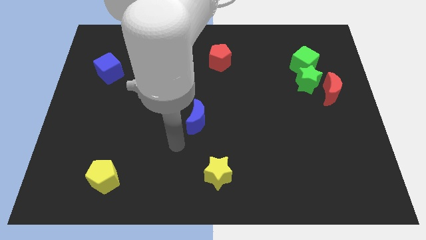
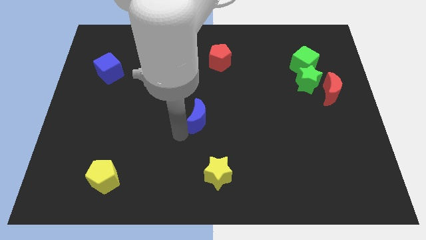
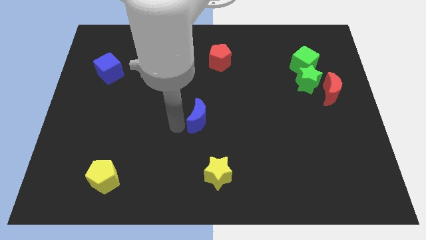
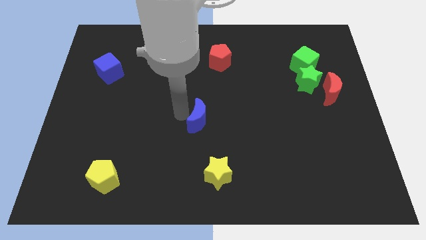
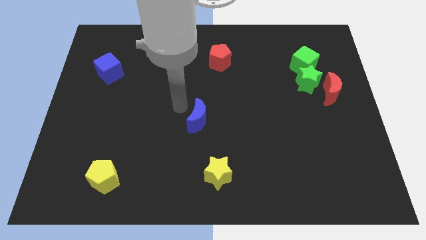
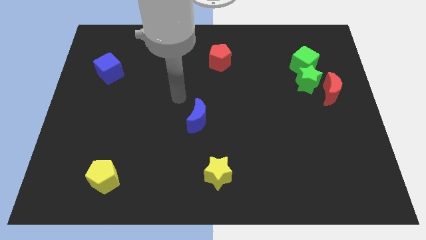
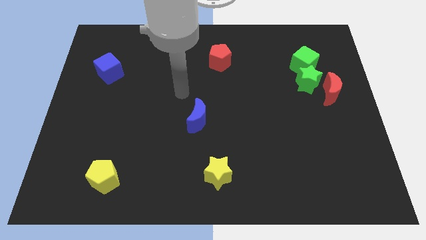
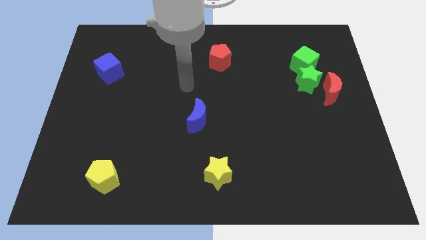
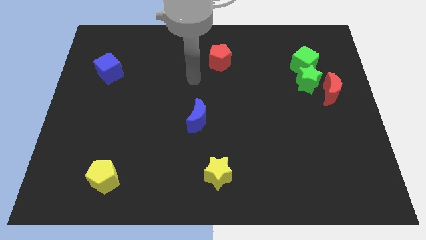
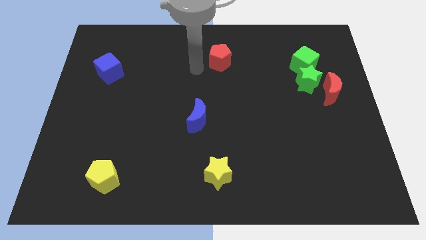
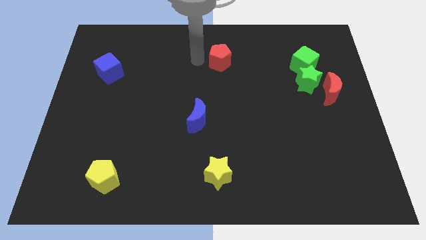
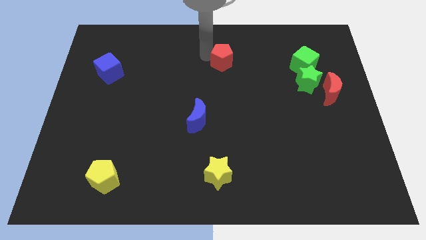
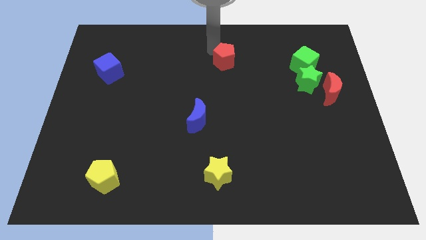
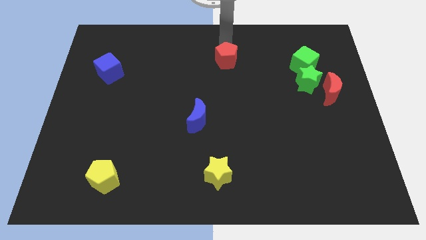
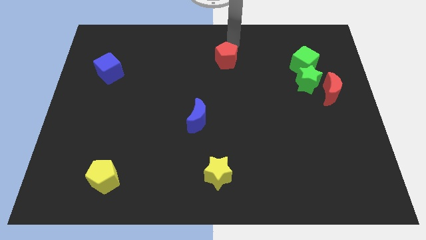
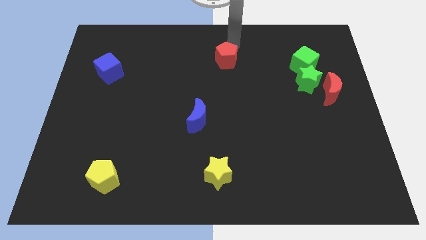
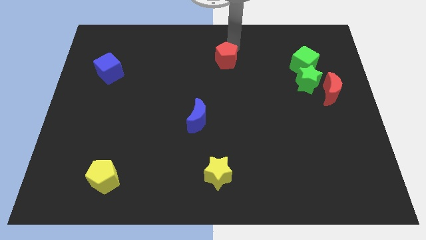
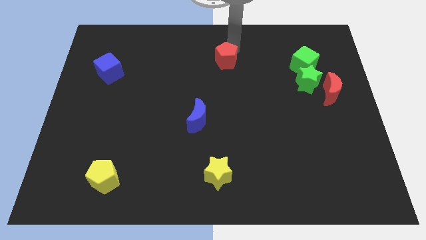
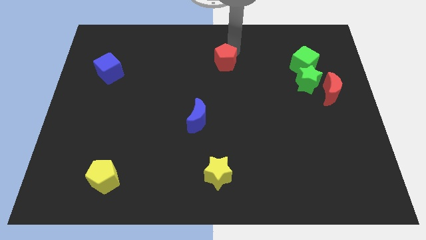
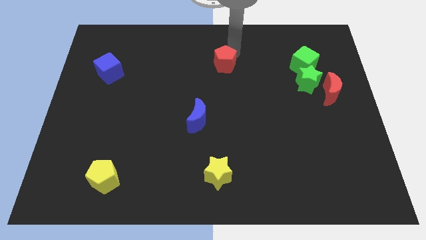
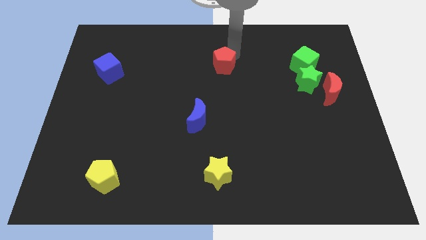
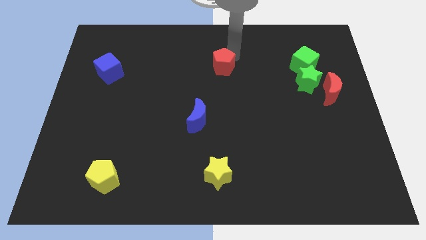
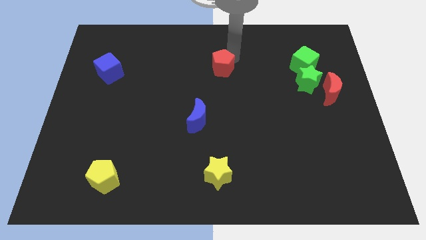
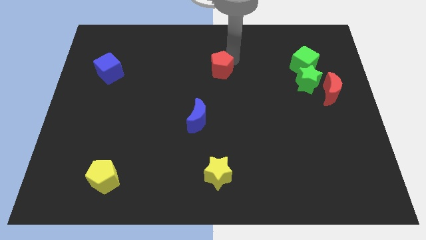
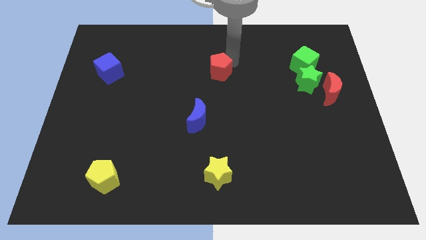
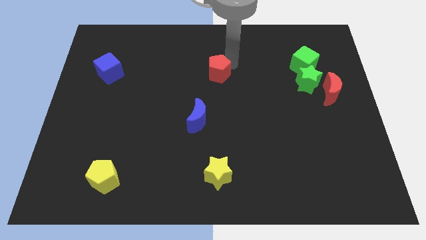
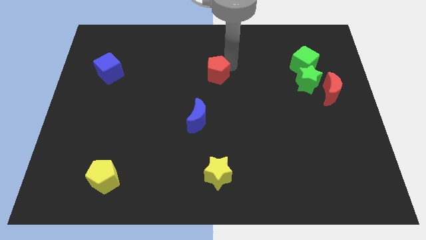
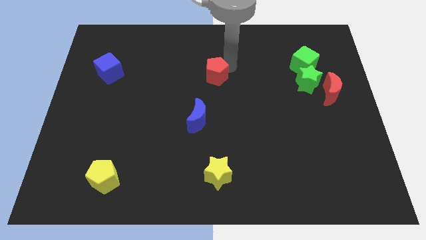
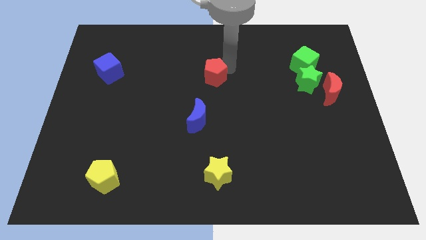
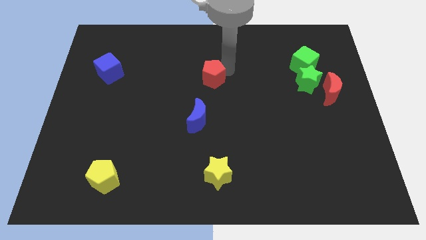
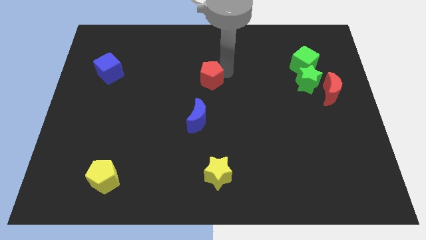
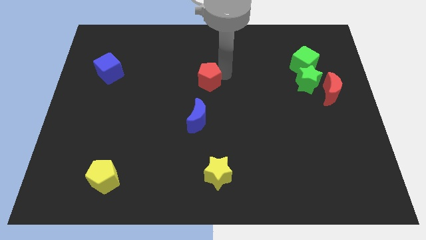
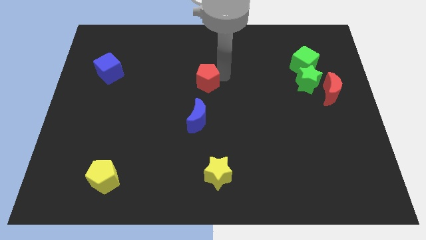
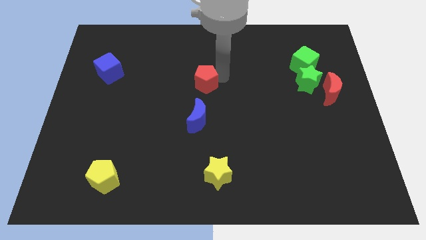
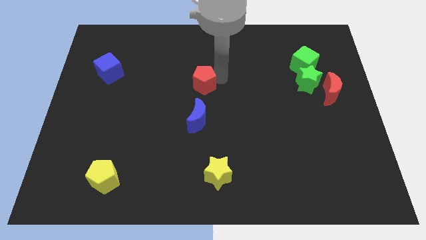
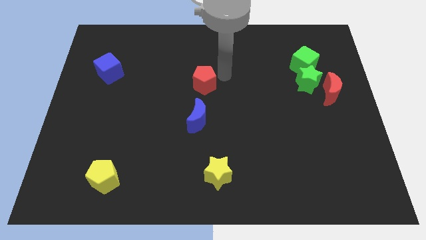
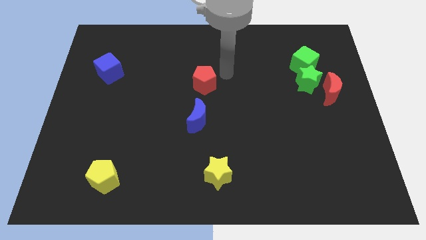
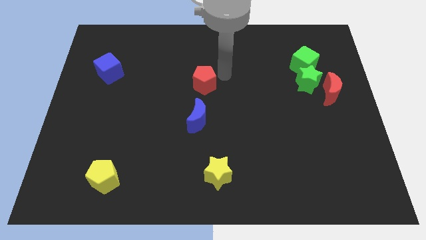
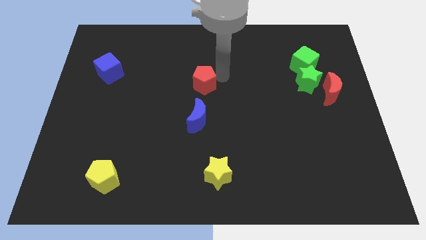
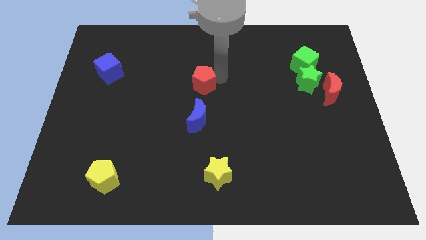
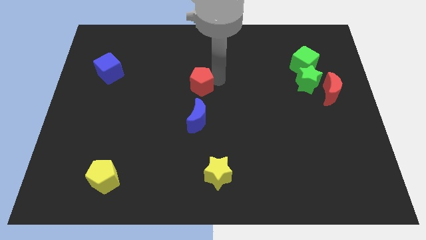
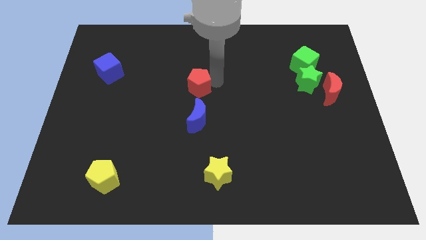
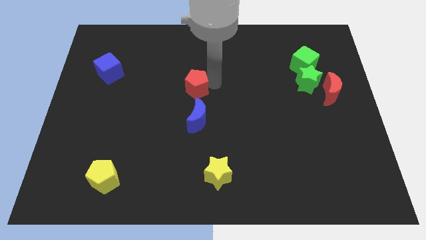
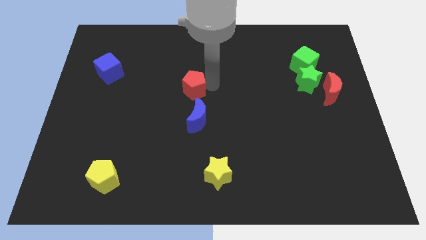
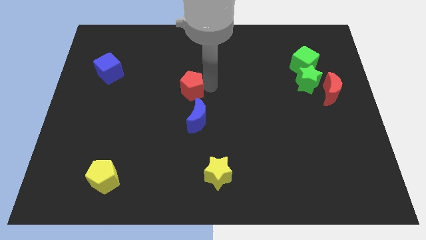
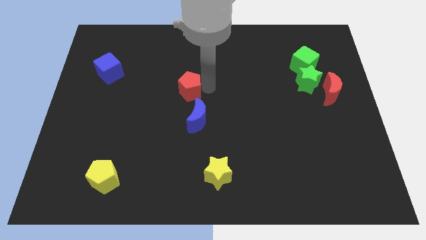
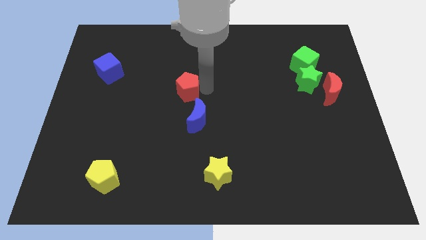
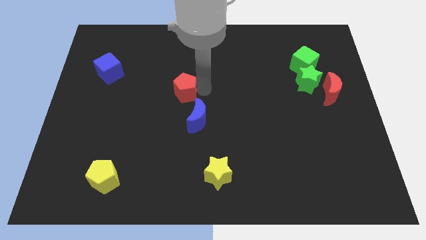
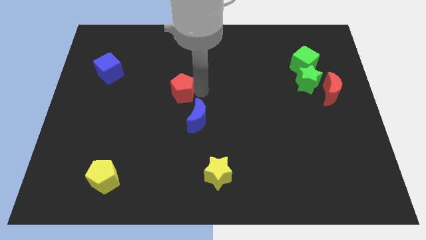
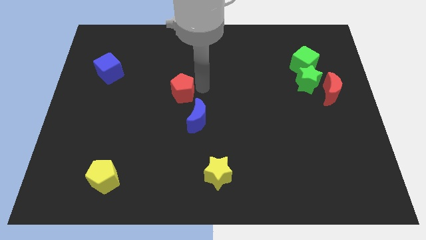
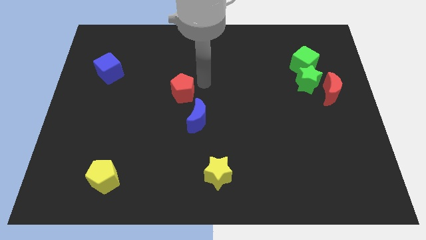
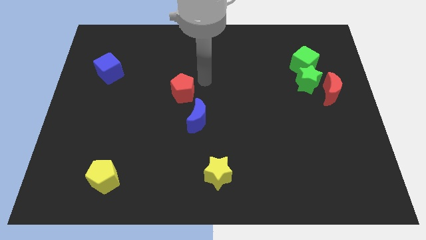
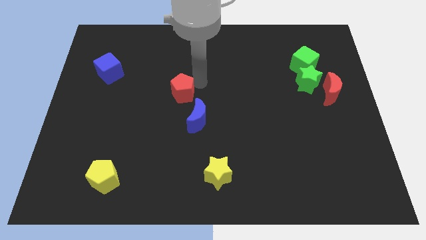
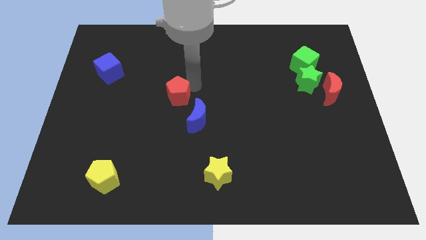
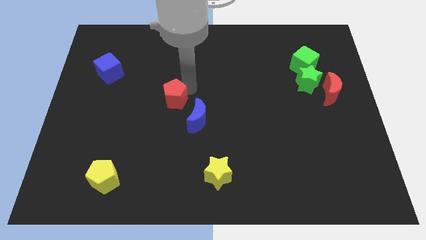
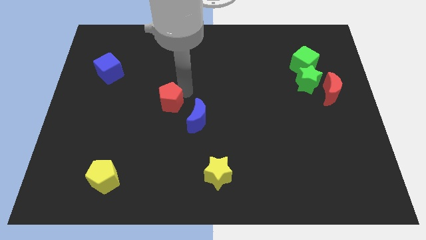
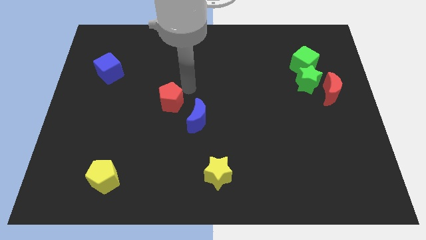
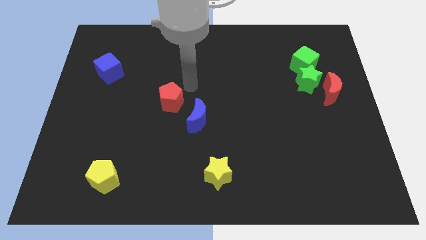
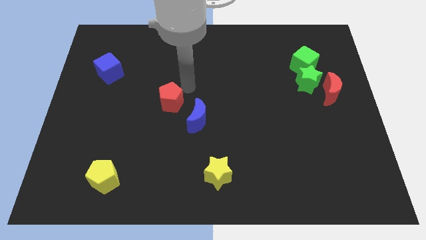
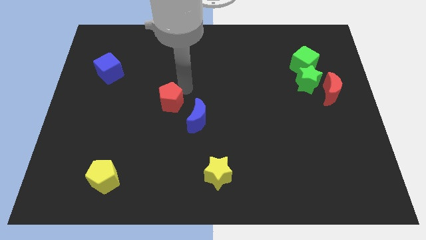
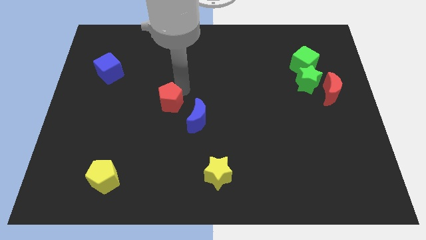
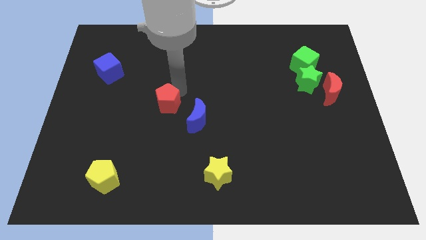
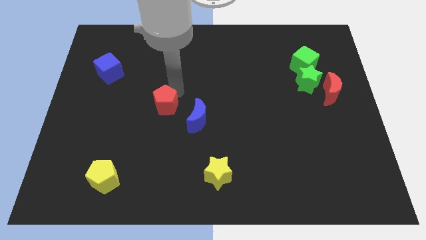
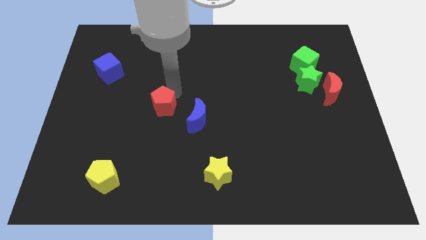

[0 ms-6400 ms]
push the red pentagon diagonally down and left

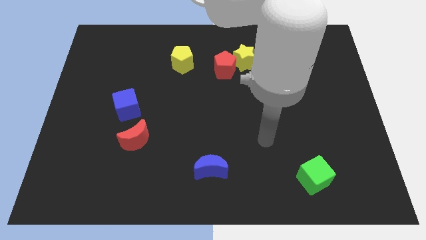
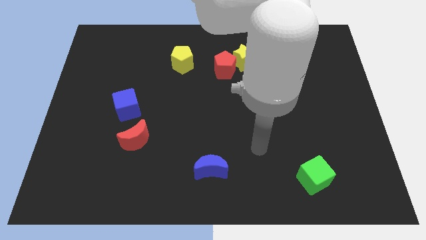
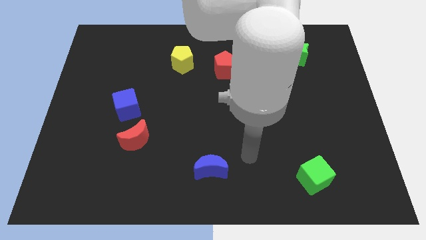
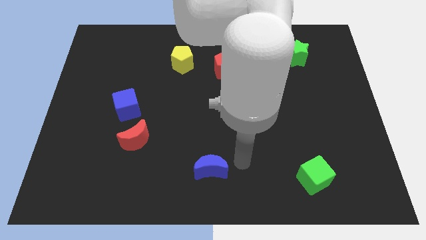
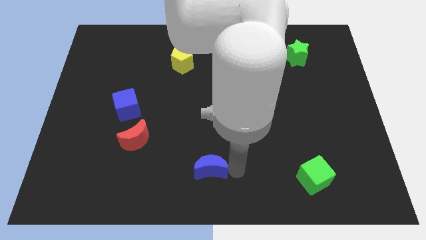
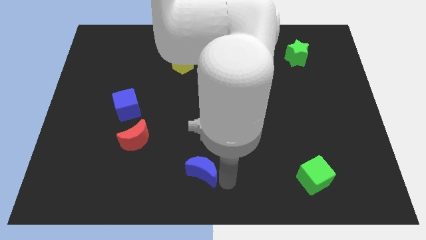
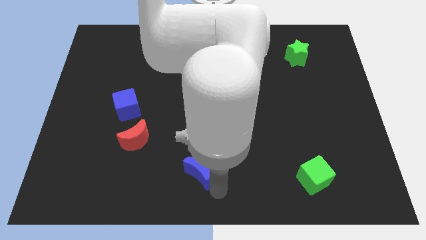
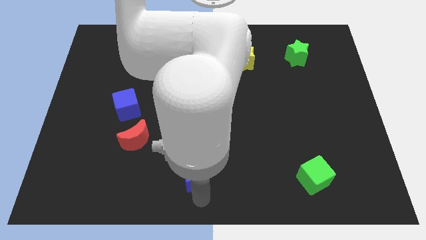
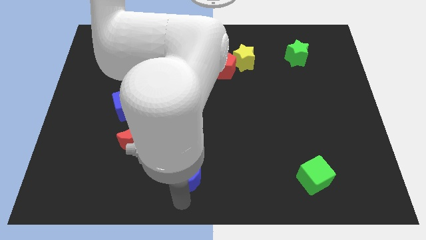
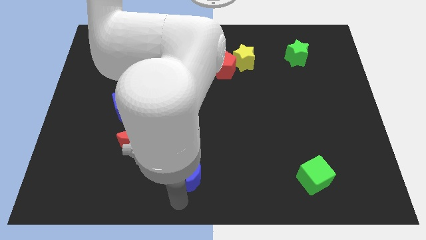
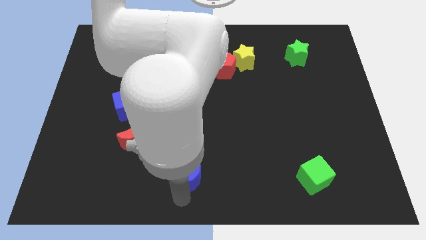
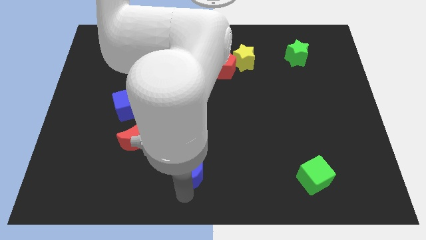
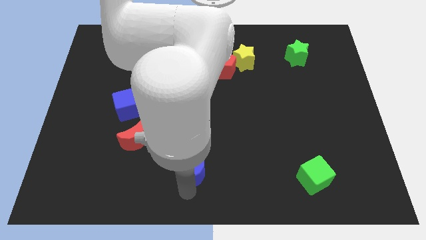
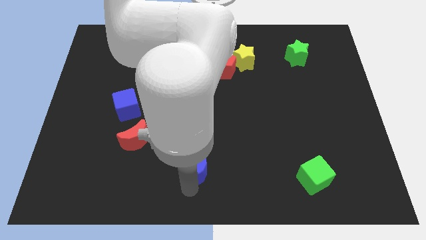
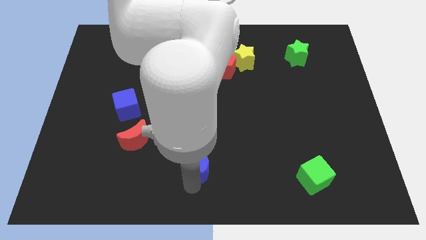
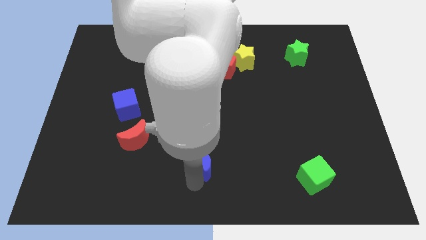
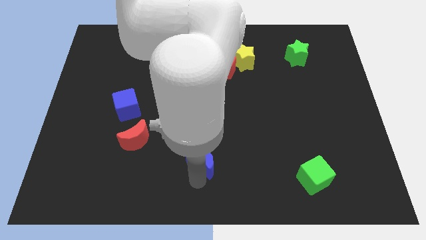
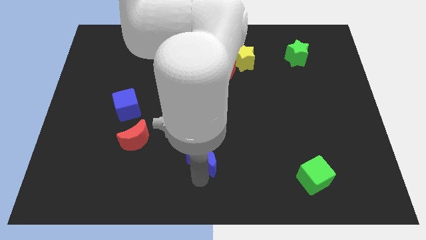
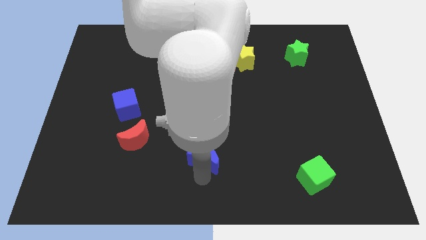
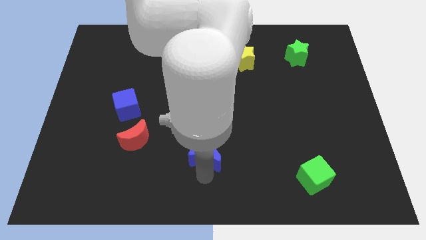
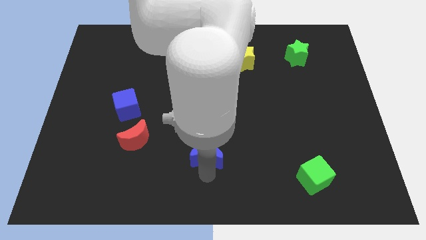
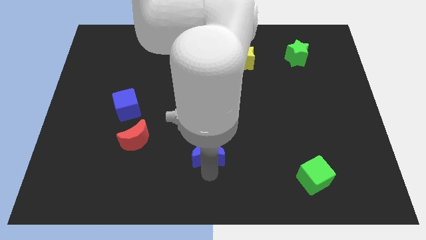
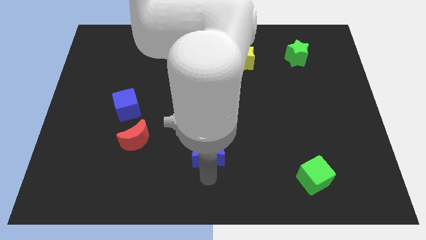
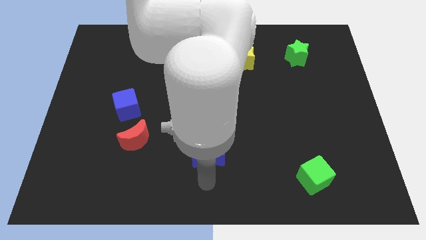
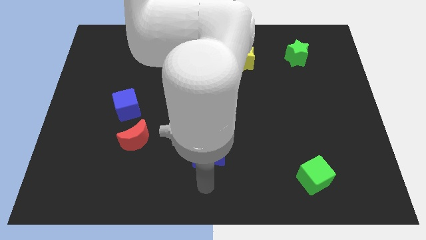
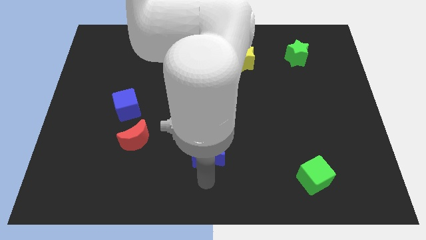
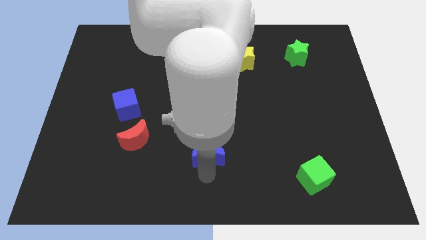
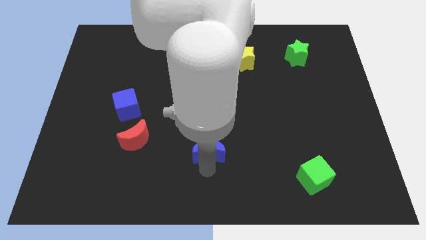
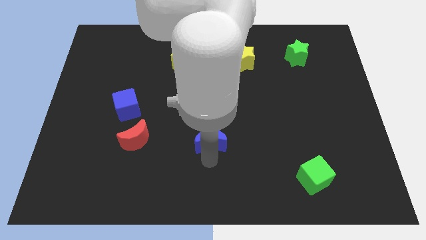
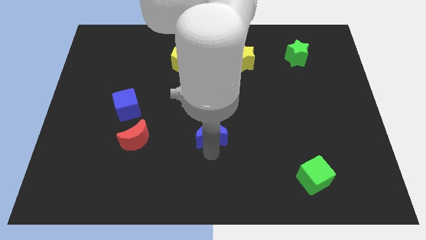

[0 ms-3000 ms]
move the blue moon upwards a bit
